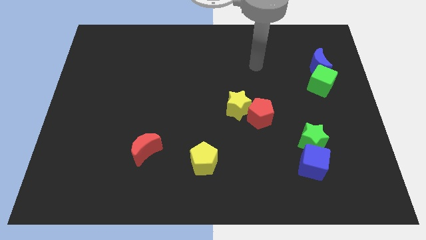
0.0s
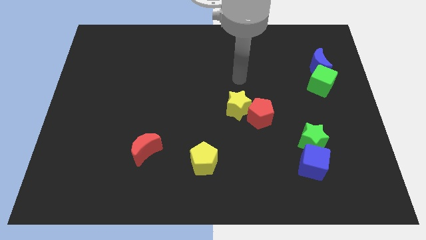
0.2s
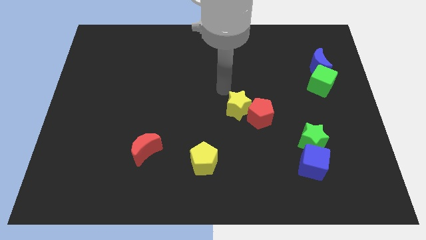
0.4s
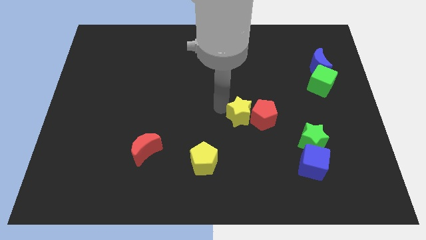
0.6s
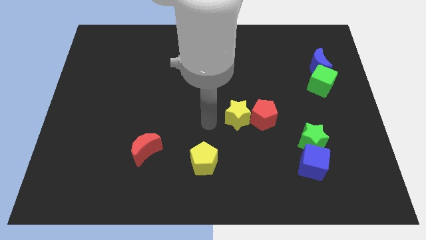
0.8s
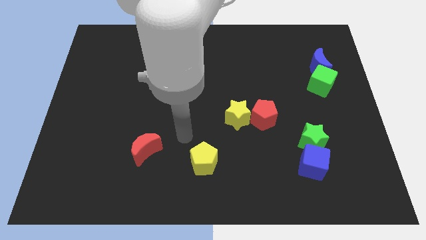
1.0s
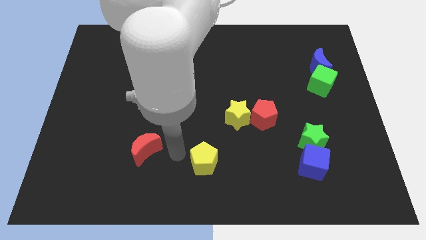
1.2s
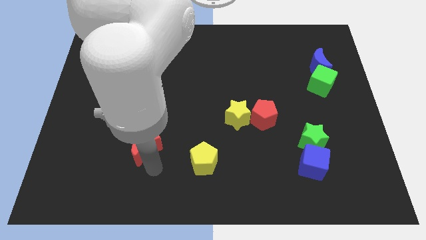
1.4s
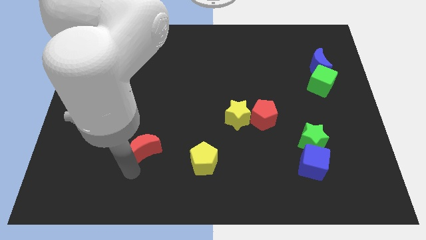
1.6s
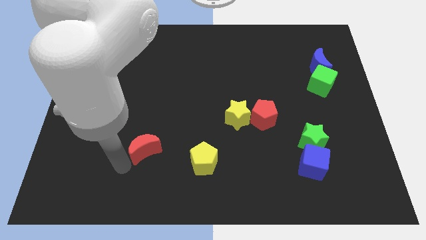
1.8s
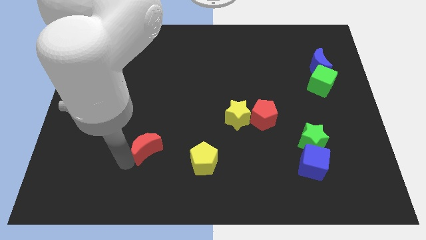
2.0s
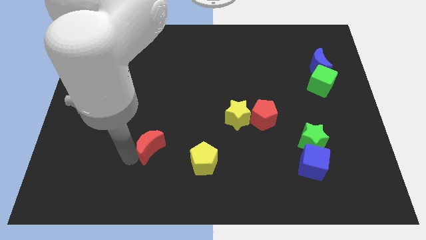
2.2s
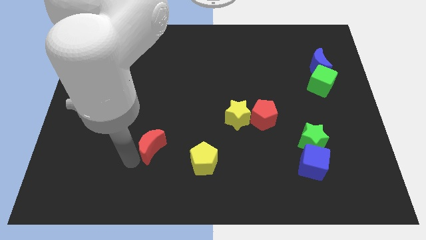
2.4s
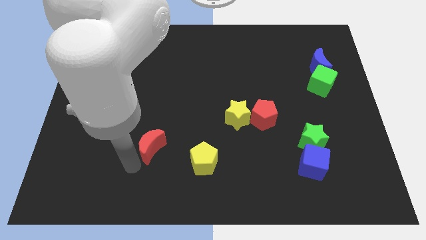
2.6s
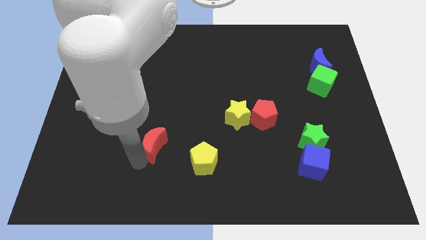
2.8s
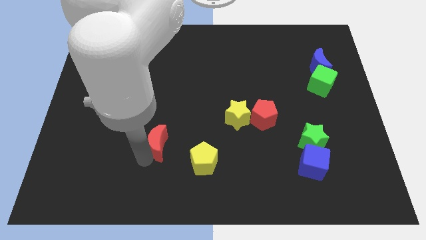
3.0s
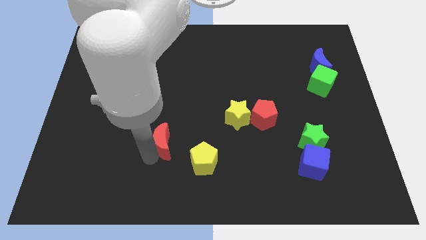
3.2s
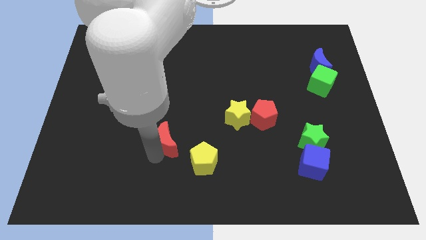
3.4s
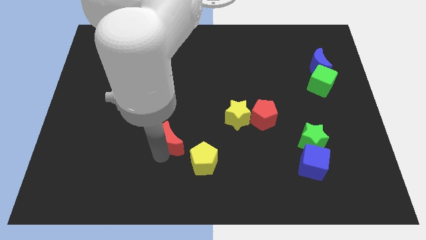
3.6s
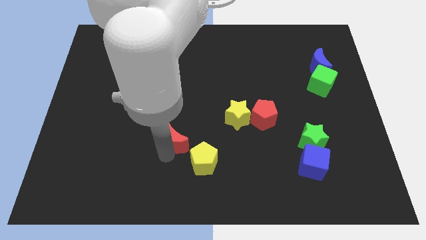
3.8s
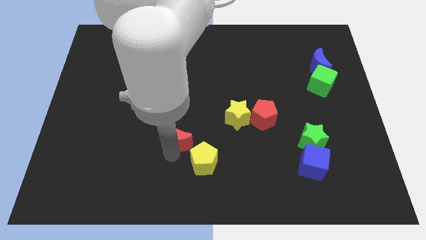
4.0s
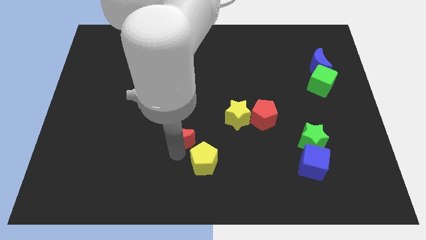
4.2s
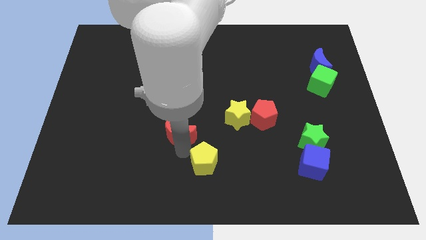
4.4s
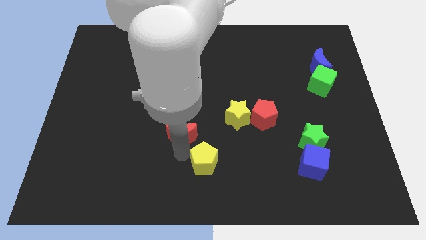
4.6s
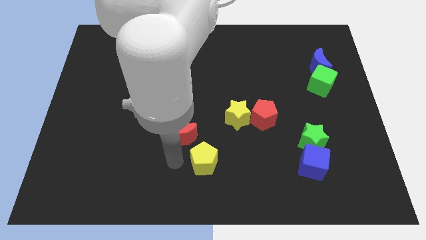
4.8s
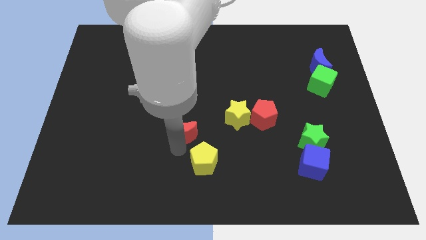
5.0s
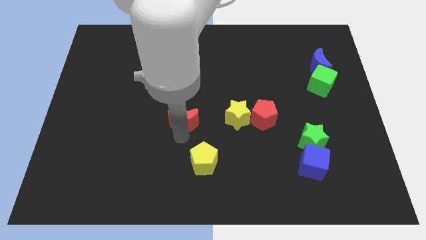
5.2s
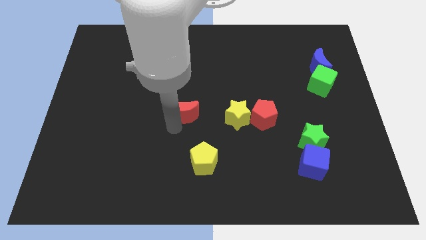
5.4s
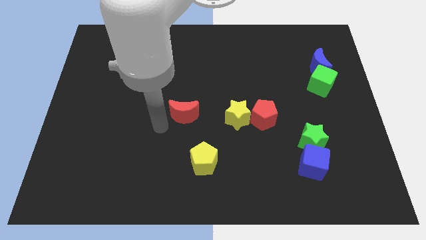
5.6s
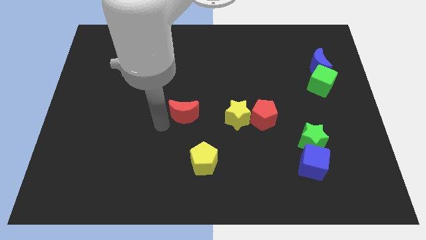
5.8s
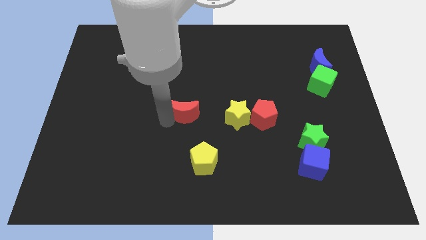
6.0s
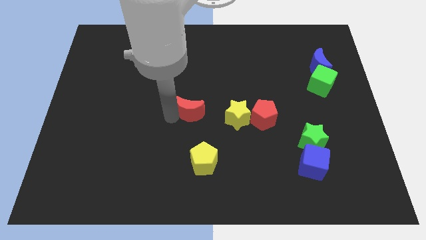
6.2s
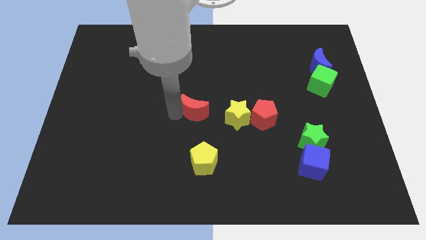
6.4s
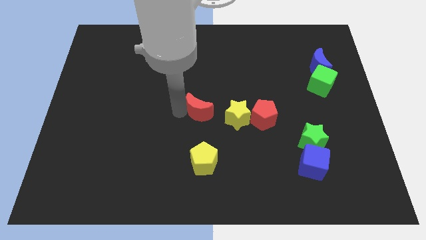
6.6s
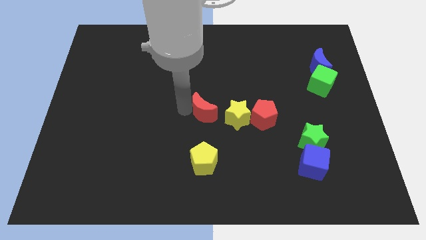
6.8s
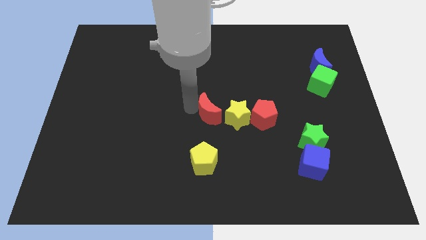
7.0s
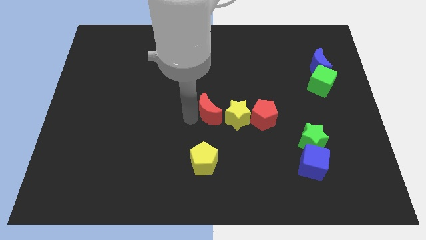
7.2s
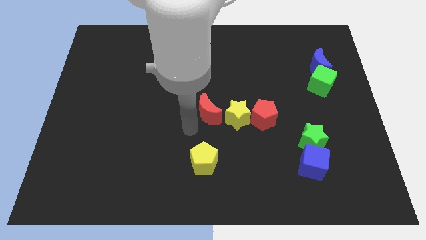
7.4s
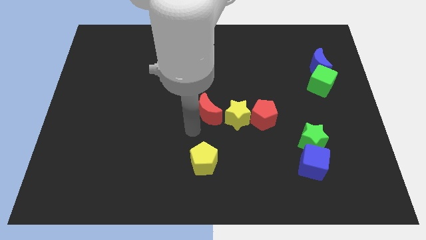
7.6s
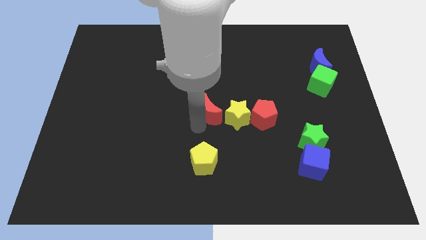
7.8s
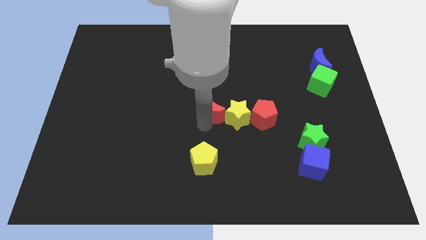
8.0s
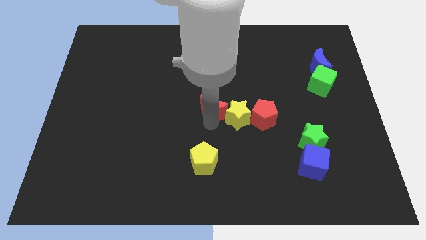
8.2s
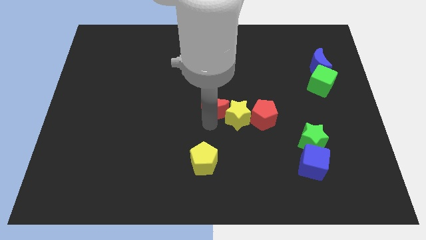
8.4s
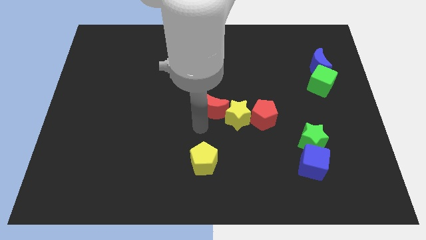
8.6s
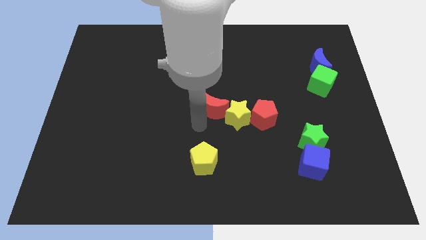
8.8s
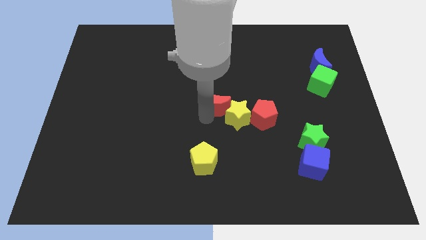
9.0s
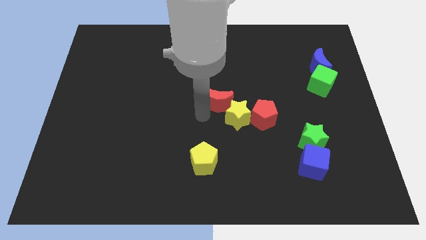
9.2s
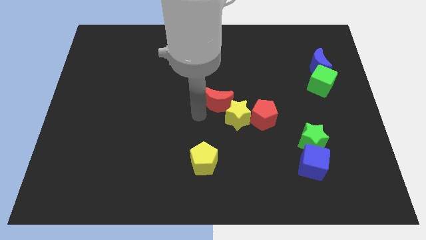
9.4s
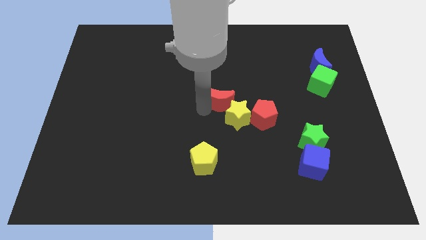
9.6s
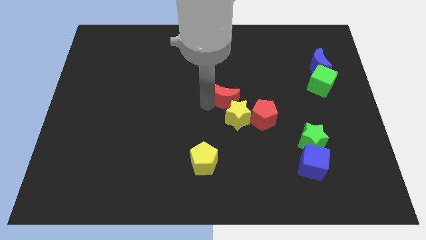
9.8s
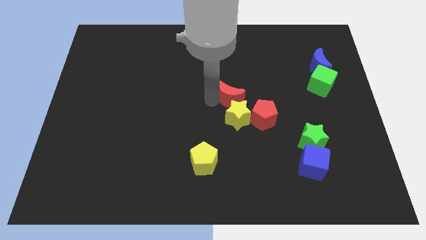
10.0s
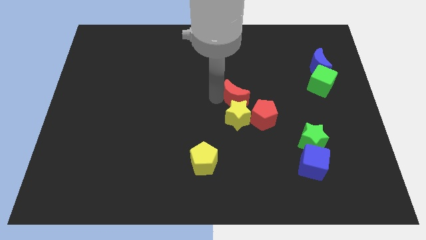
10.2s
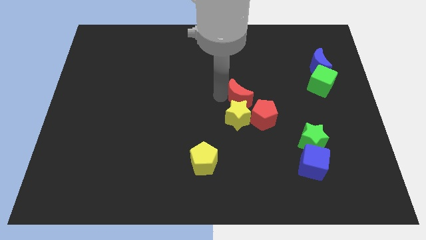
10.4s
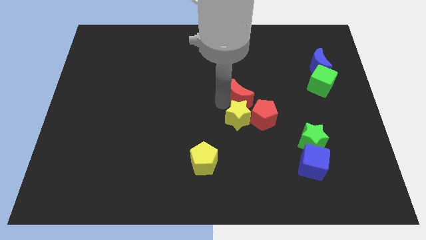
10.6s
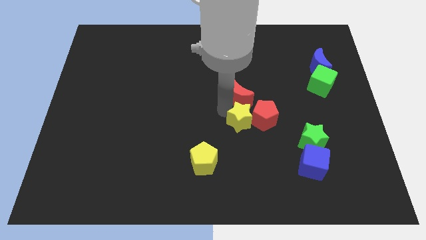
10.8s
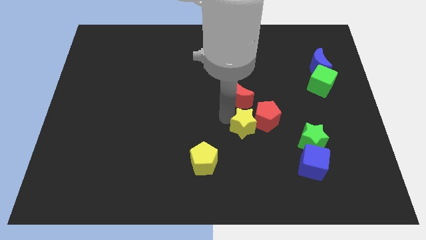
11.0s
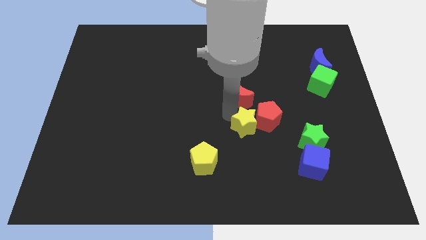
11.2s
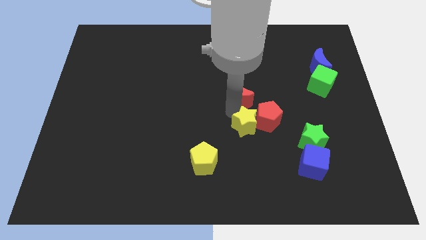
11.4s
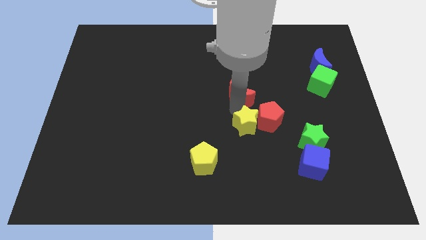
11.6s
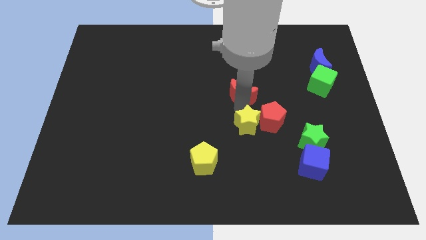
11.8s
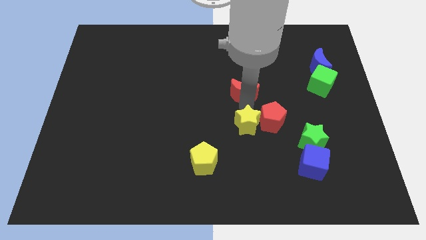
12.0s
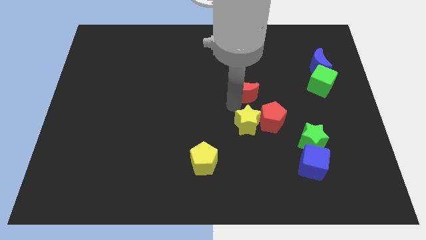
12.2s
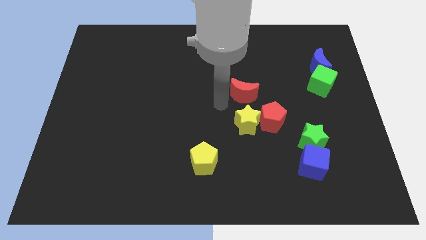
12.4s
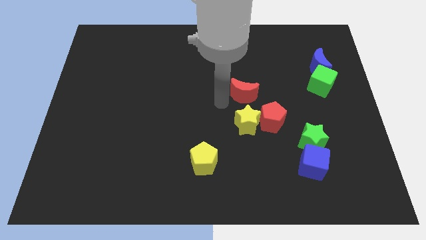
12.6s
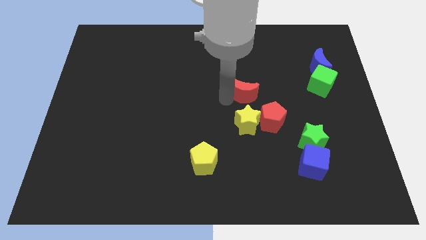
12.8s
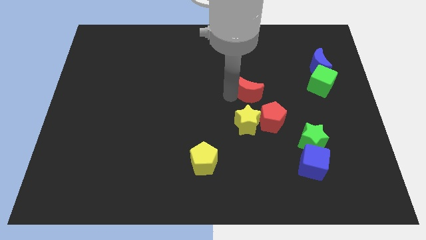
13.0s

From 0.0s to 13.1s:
put the red moon to the top of the red pentagon
